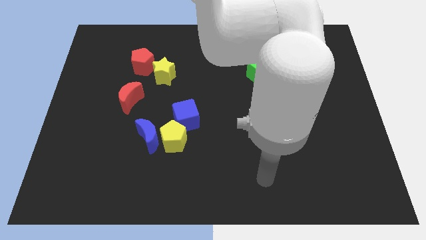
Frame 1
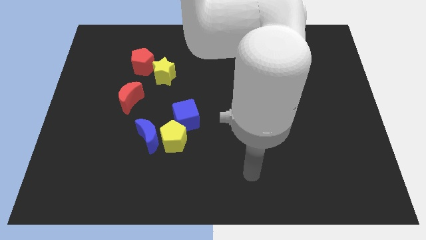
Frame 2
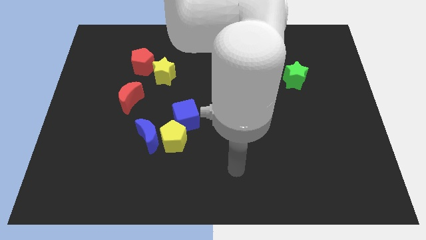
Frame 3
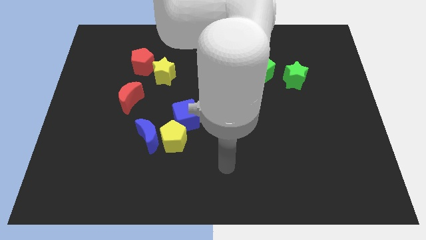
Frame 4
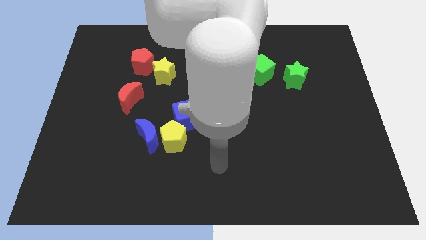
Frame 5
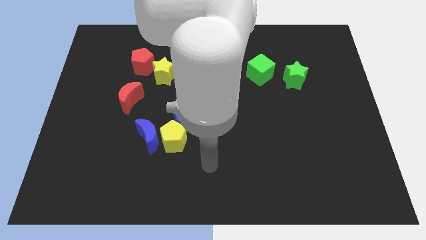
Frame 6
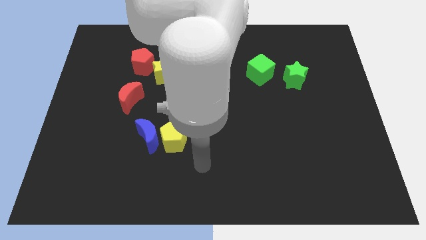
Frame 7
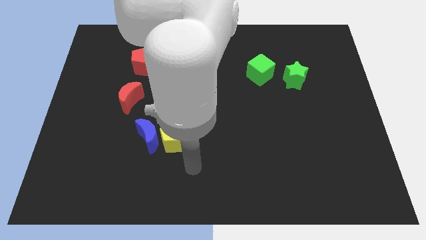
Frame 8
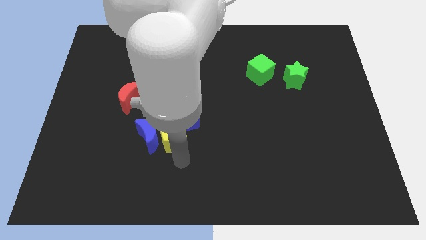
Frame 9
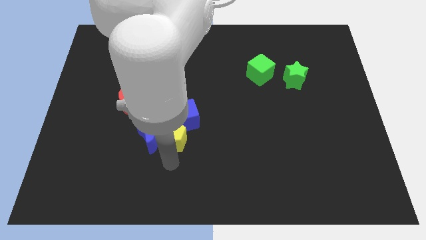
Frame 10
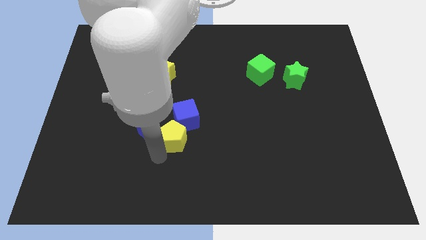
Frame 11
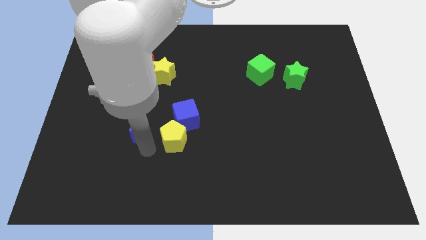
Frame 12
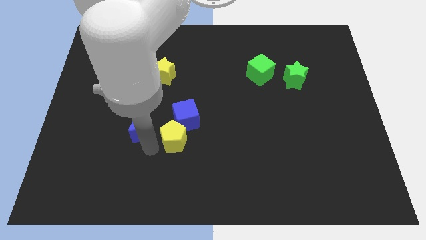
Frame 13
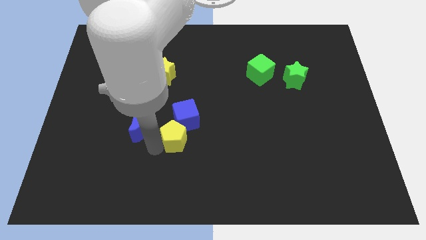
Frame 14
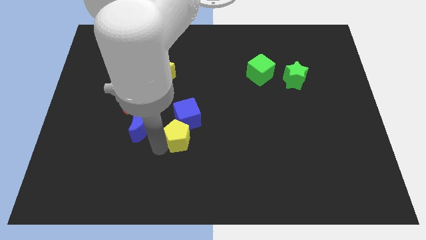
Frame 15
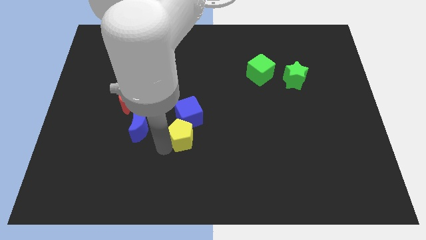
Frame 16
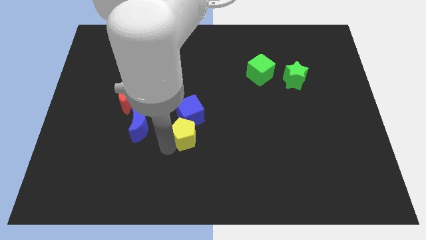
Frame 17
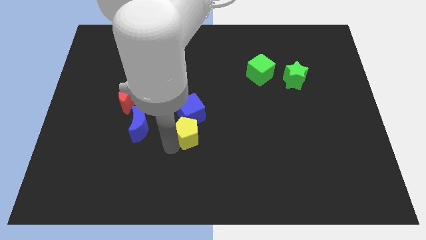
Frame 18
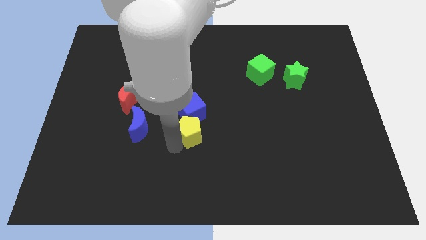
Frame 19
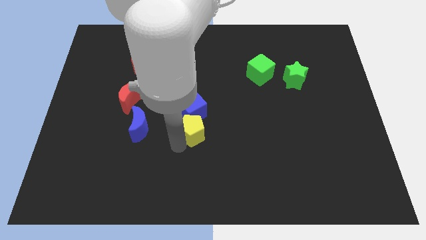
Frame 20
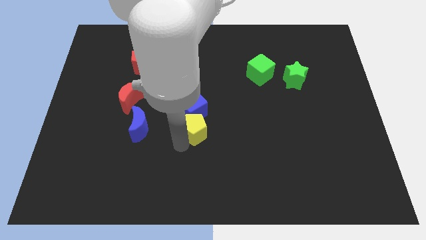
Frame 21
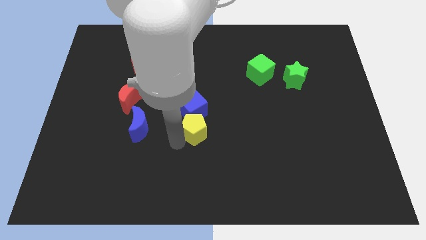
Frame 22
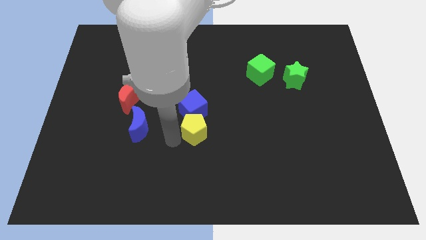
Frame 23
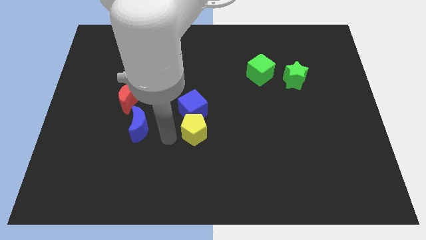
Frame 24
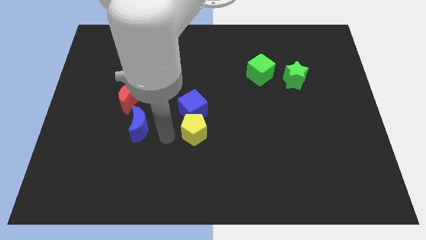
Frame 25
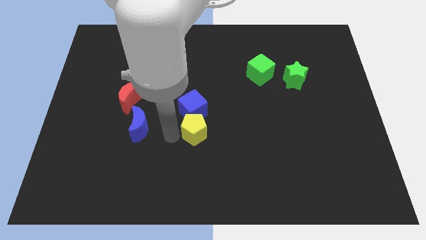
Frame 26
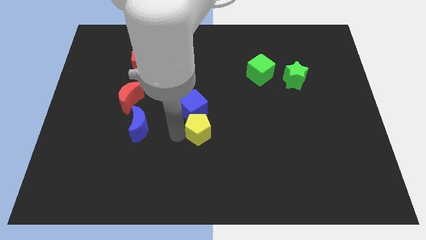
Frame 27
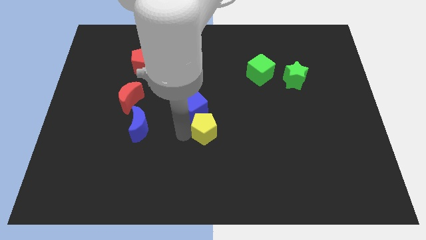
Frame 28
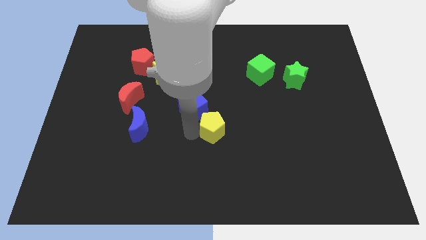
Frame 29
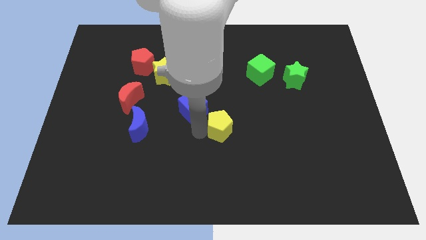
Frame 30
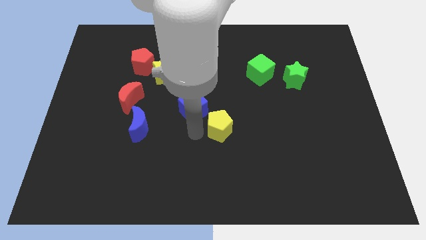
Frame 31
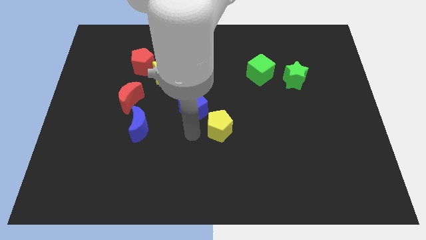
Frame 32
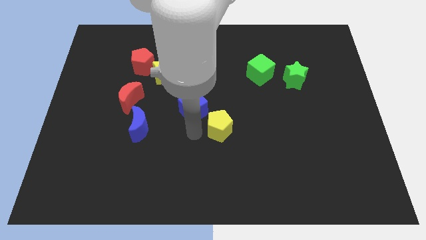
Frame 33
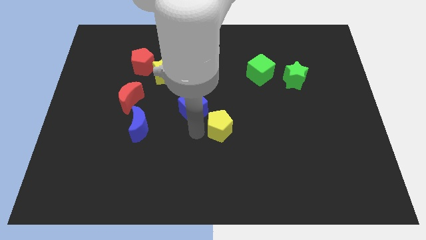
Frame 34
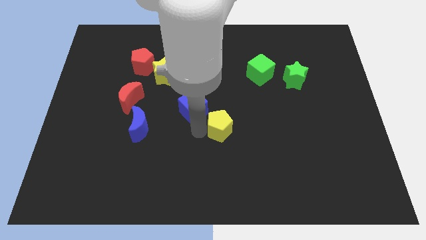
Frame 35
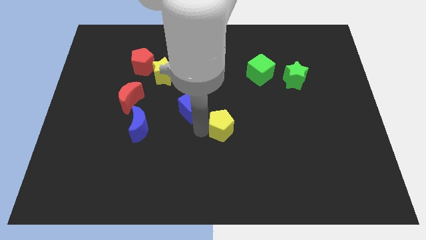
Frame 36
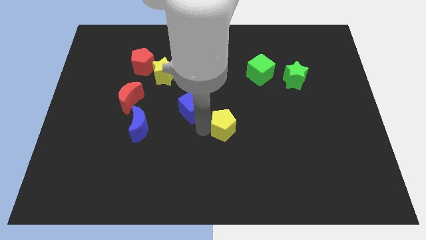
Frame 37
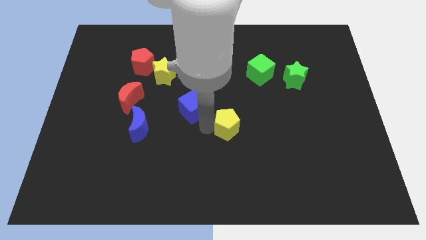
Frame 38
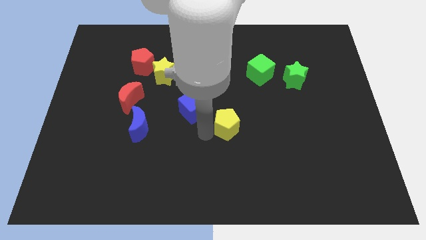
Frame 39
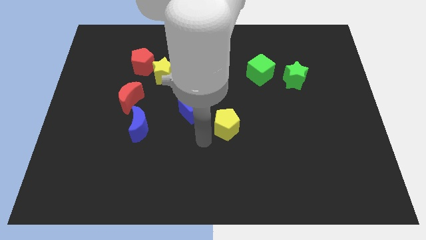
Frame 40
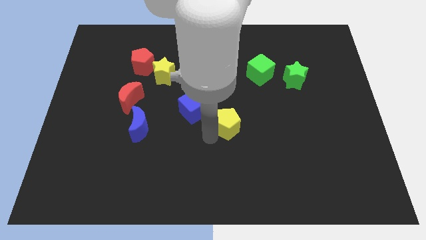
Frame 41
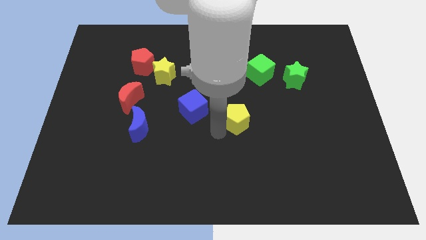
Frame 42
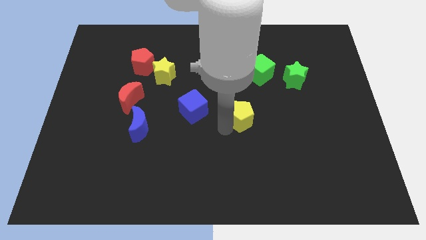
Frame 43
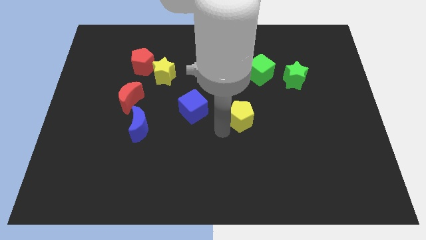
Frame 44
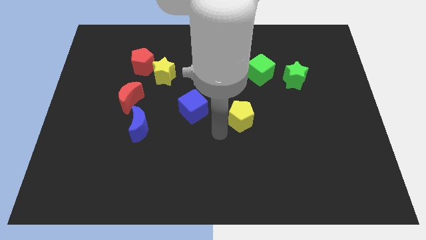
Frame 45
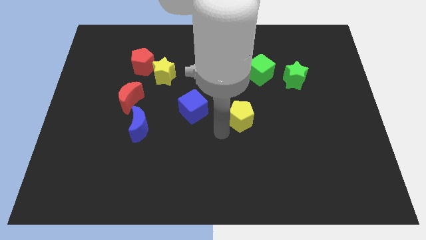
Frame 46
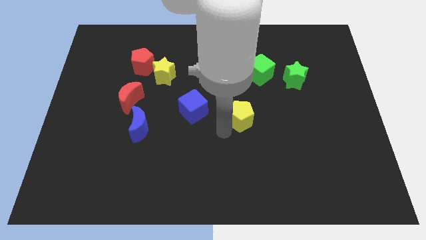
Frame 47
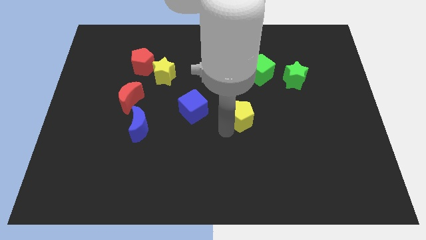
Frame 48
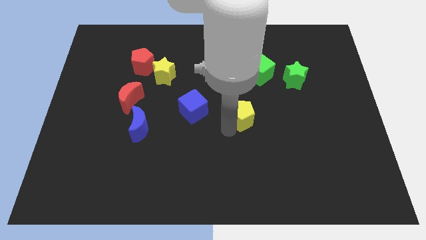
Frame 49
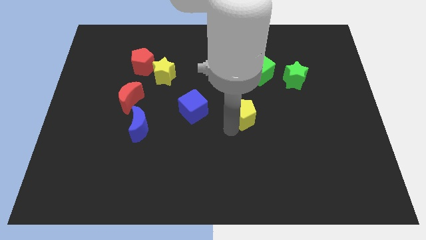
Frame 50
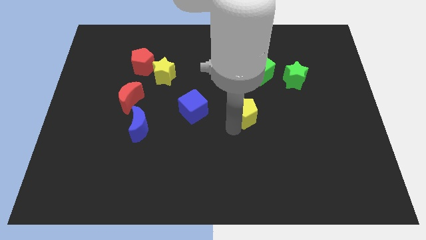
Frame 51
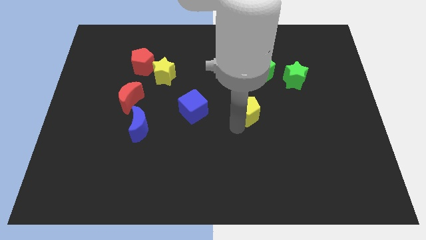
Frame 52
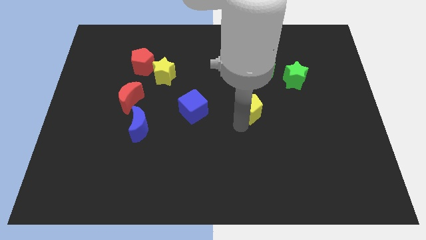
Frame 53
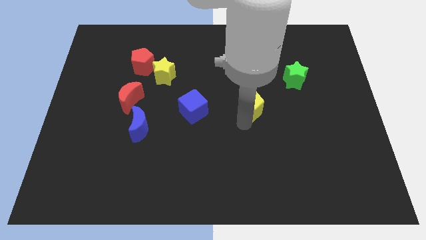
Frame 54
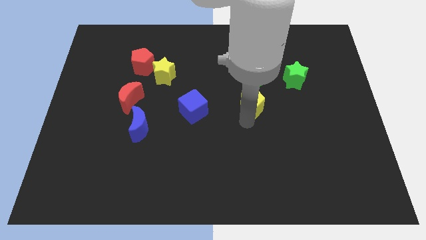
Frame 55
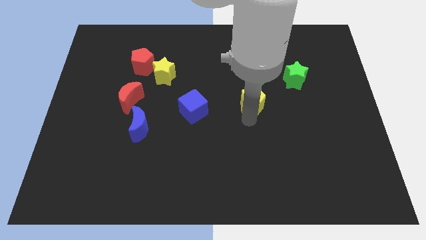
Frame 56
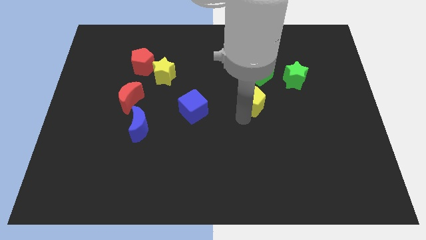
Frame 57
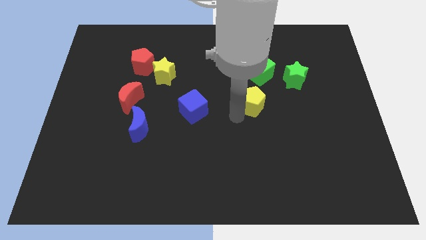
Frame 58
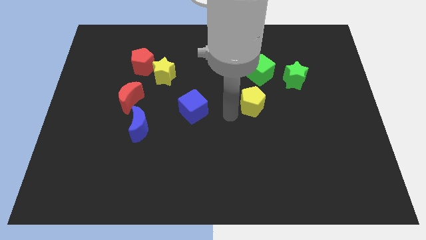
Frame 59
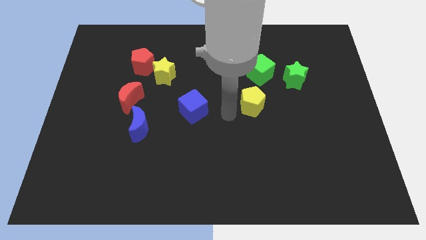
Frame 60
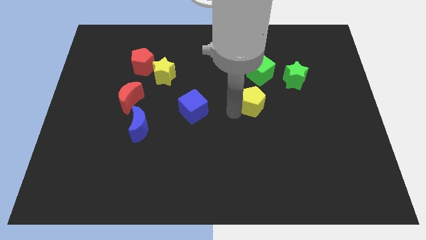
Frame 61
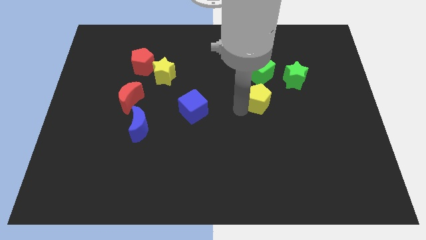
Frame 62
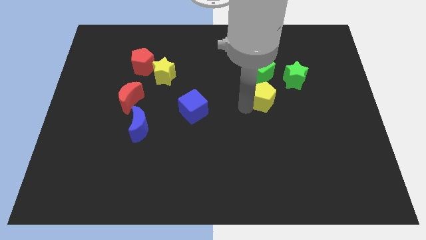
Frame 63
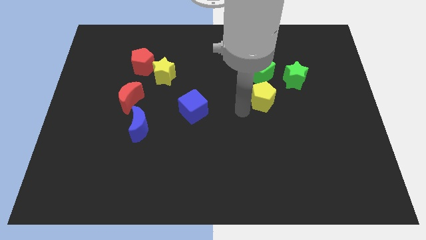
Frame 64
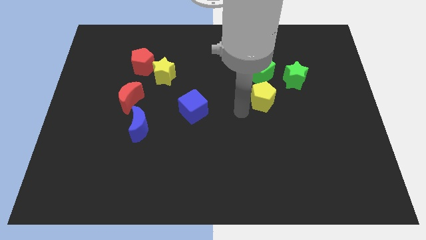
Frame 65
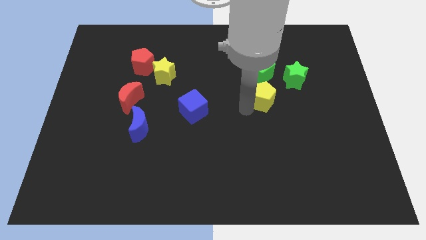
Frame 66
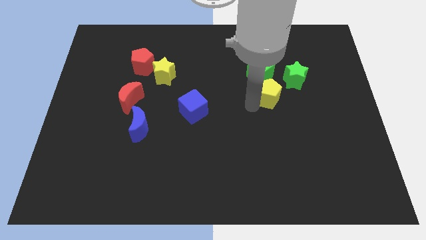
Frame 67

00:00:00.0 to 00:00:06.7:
push the yellow pentagon diagonally down and to the right of the green cube
